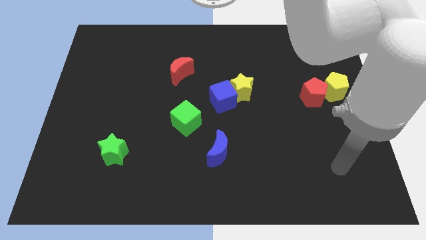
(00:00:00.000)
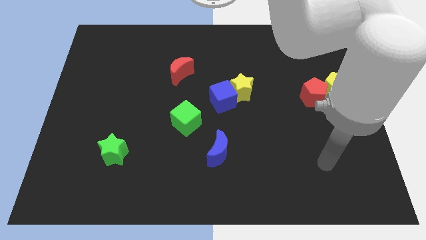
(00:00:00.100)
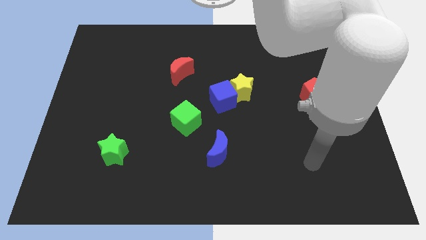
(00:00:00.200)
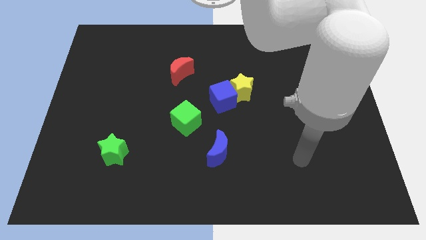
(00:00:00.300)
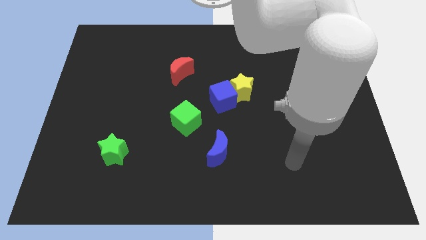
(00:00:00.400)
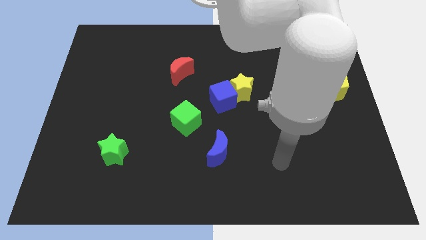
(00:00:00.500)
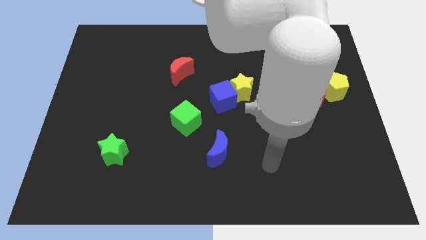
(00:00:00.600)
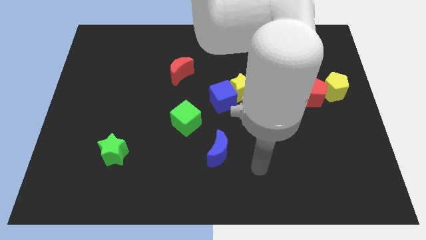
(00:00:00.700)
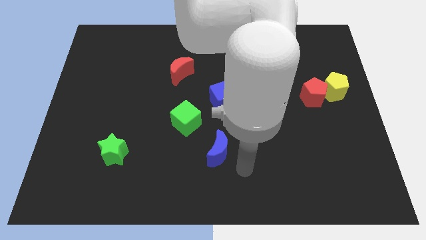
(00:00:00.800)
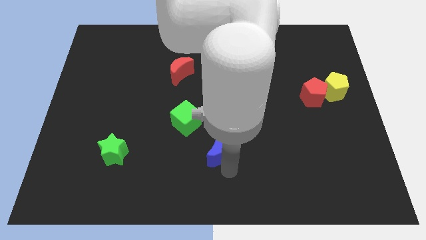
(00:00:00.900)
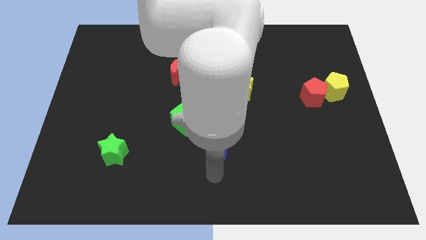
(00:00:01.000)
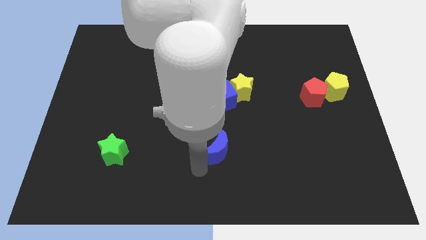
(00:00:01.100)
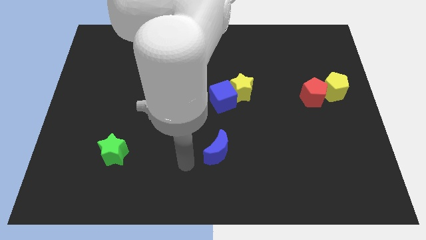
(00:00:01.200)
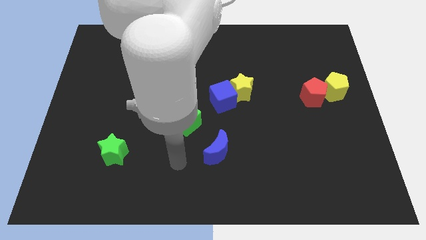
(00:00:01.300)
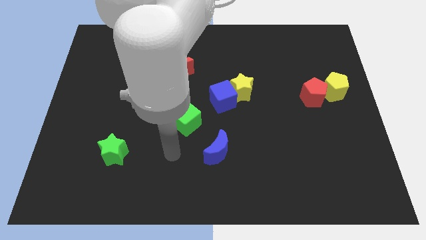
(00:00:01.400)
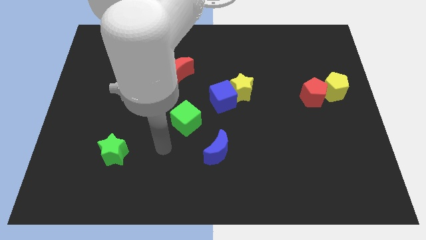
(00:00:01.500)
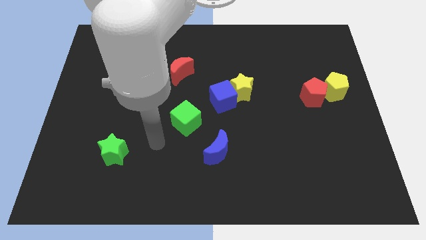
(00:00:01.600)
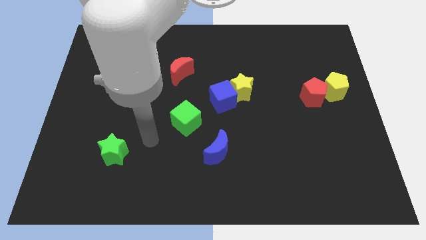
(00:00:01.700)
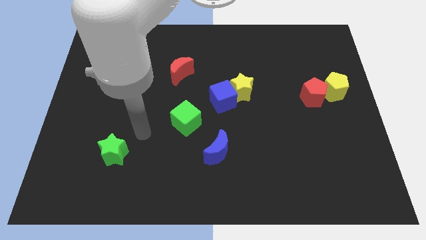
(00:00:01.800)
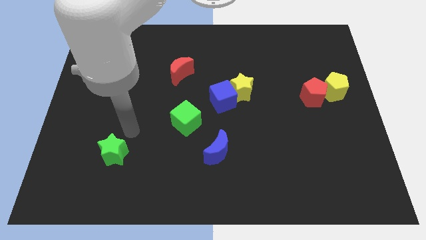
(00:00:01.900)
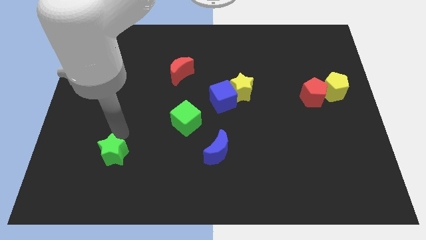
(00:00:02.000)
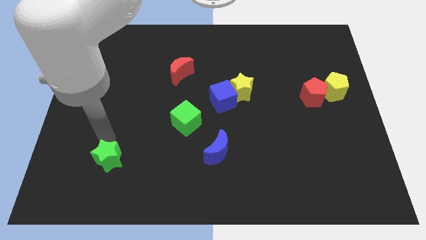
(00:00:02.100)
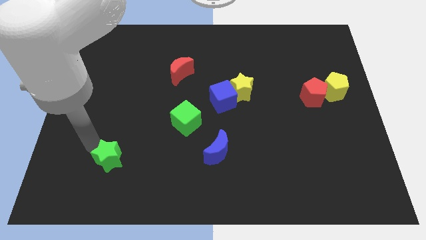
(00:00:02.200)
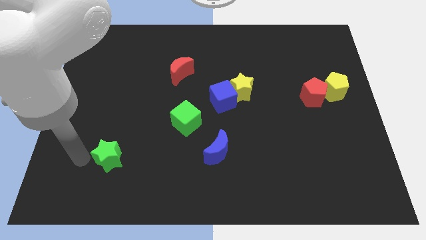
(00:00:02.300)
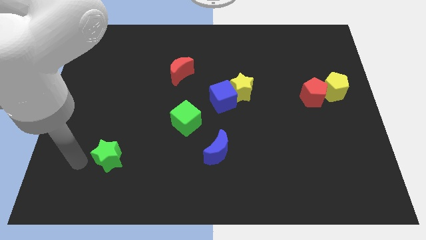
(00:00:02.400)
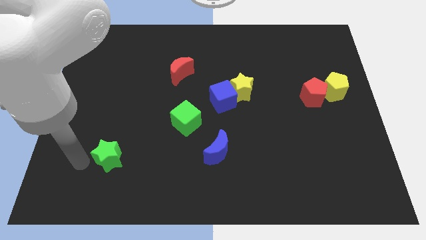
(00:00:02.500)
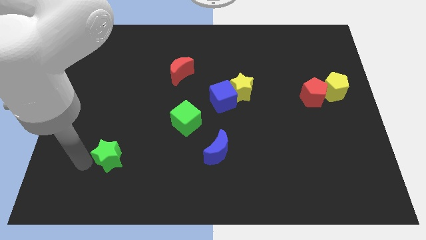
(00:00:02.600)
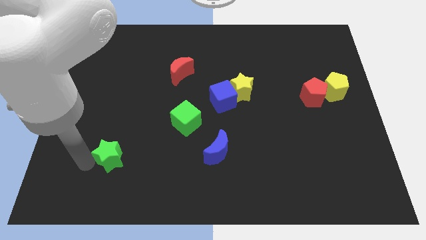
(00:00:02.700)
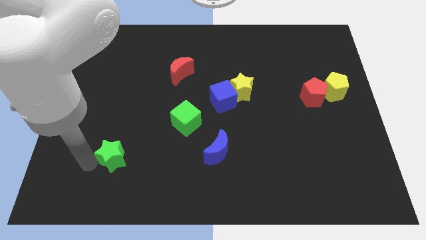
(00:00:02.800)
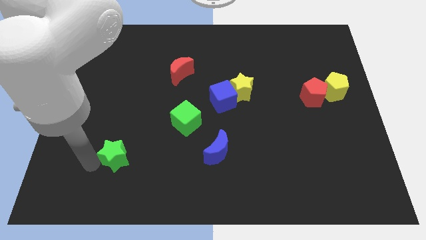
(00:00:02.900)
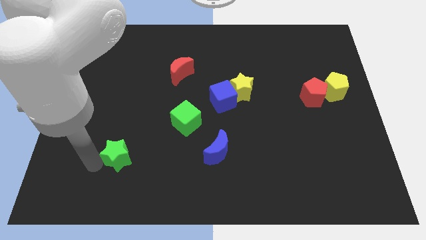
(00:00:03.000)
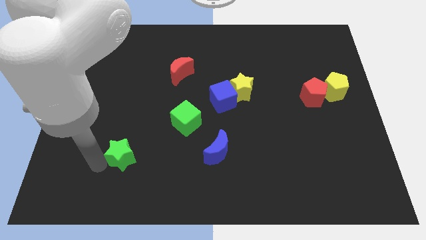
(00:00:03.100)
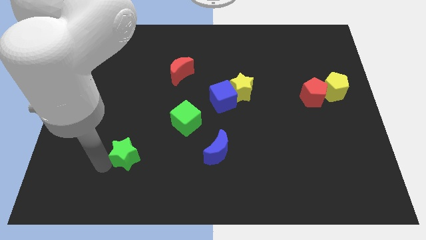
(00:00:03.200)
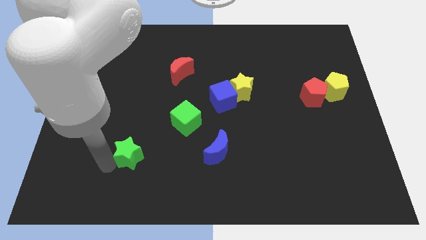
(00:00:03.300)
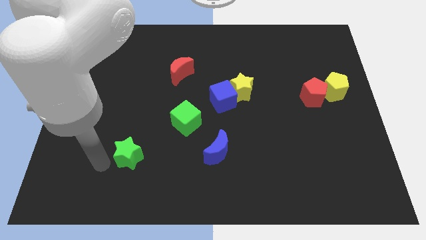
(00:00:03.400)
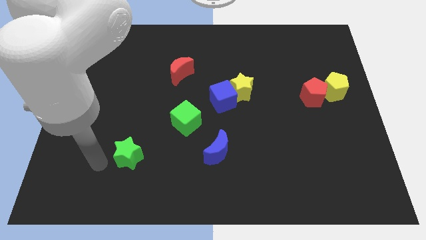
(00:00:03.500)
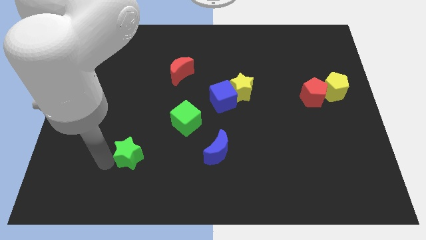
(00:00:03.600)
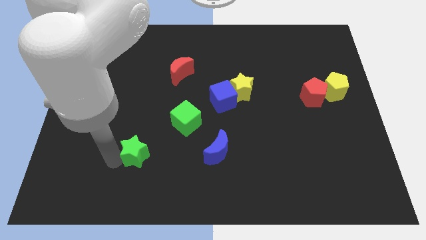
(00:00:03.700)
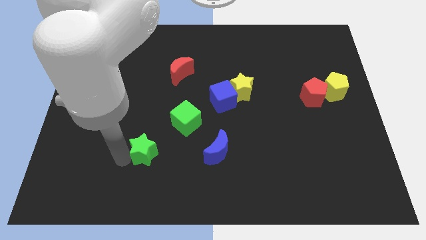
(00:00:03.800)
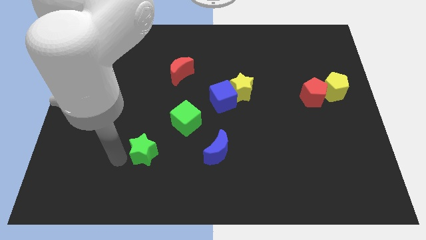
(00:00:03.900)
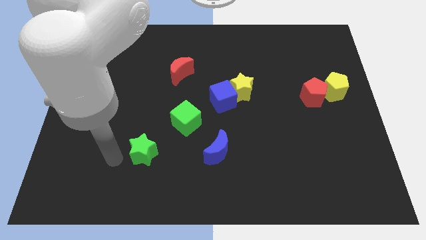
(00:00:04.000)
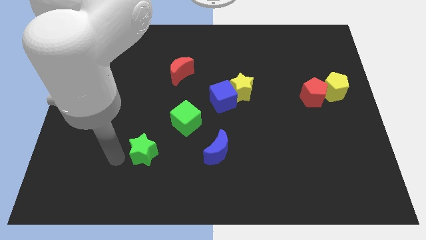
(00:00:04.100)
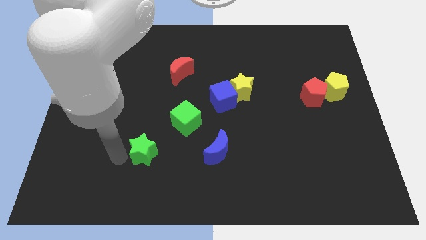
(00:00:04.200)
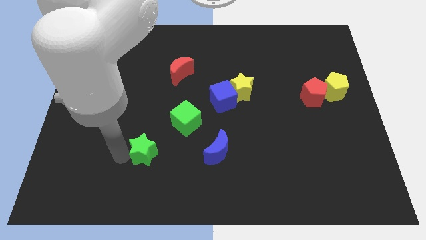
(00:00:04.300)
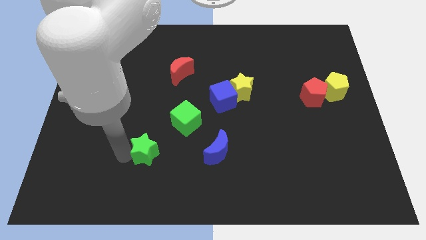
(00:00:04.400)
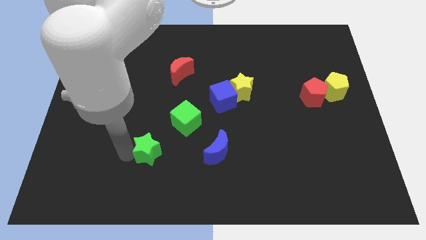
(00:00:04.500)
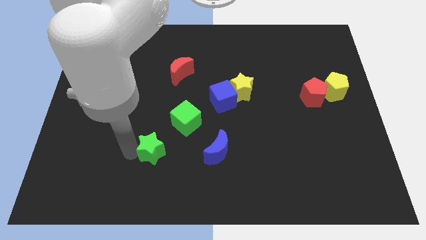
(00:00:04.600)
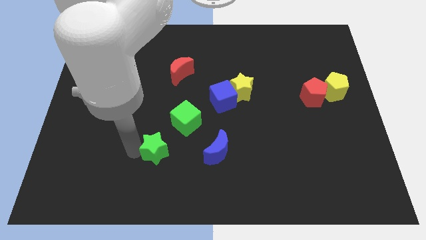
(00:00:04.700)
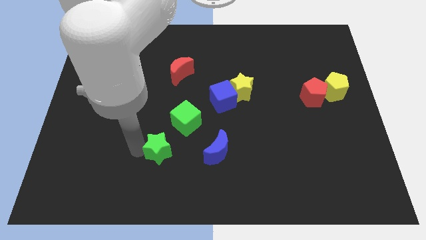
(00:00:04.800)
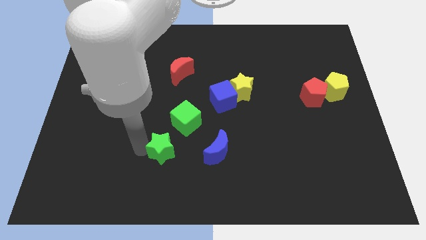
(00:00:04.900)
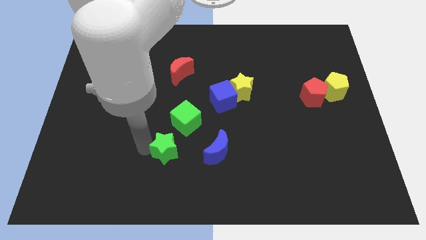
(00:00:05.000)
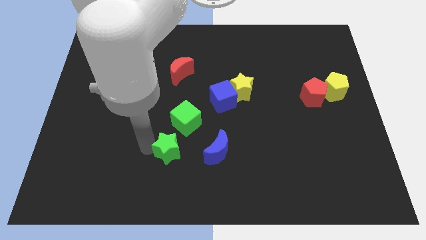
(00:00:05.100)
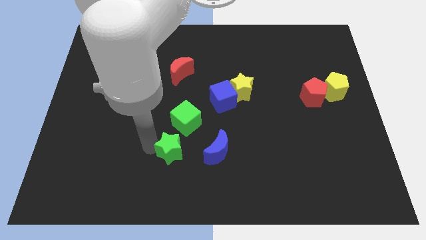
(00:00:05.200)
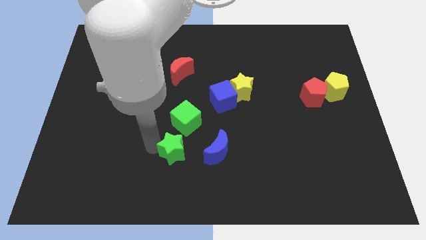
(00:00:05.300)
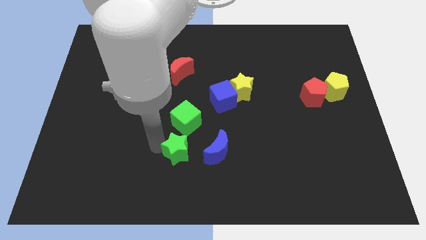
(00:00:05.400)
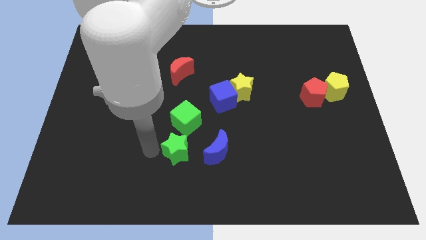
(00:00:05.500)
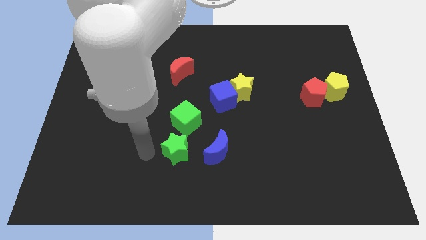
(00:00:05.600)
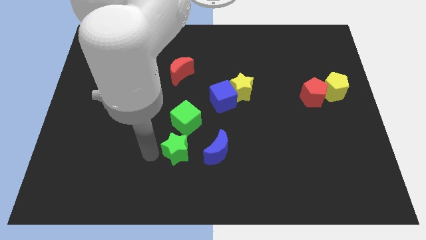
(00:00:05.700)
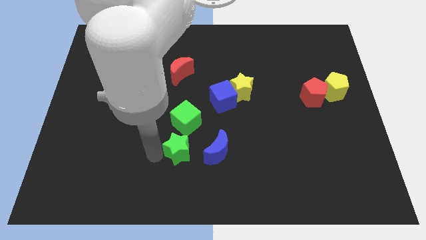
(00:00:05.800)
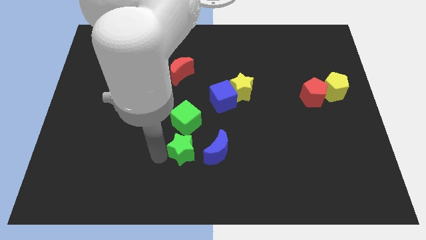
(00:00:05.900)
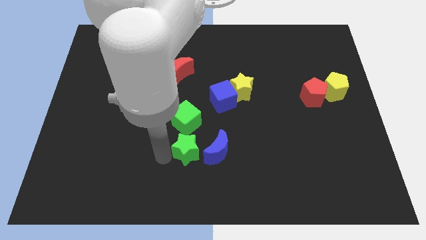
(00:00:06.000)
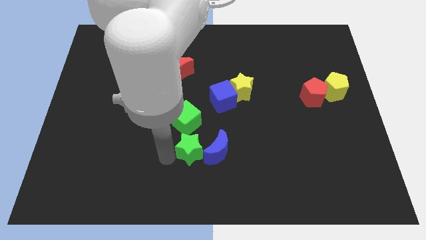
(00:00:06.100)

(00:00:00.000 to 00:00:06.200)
move the green star close to the blue moon

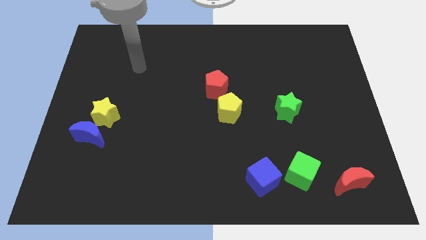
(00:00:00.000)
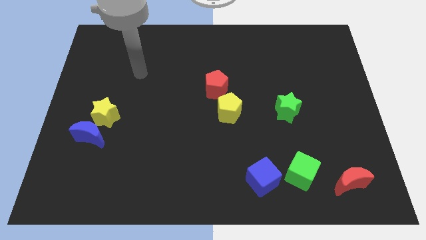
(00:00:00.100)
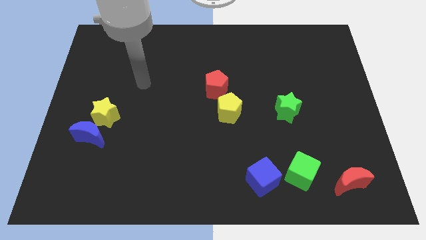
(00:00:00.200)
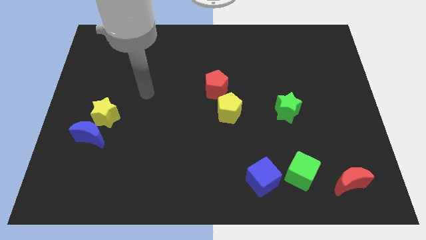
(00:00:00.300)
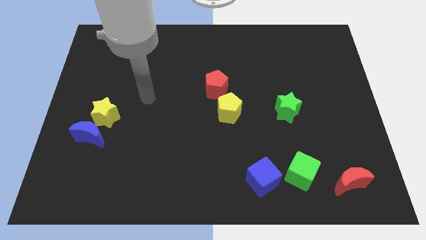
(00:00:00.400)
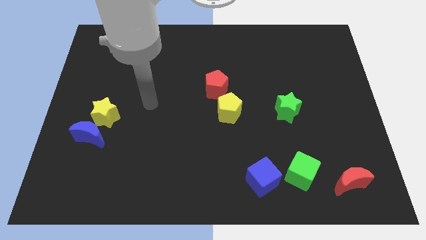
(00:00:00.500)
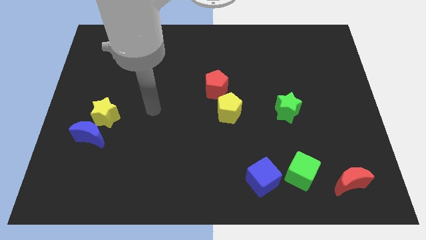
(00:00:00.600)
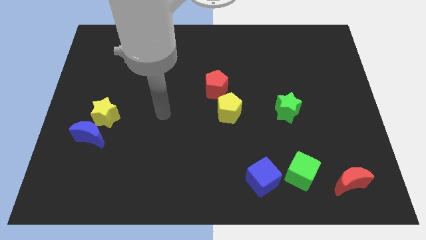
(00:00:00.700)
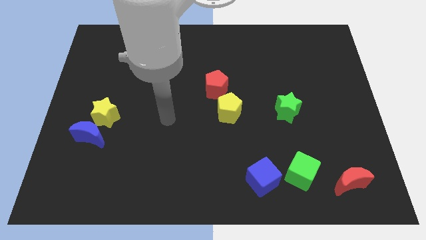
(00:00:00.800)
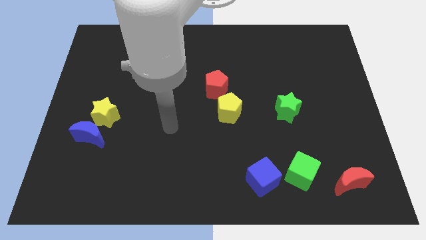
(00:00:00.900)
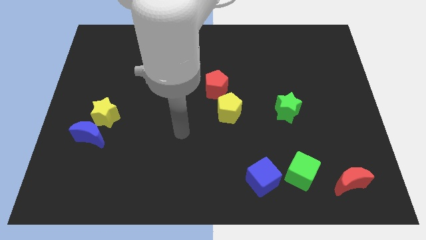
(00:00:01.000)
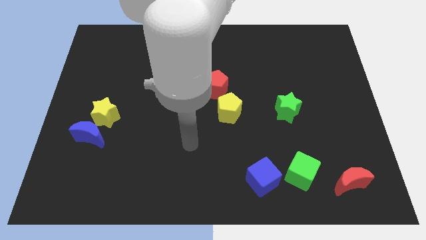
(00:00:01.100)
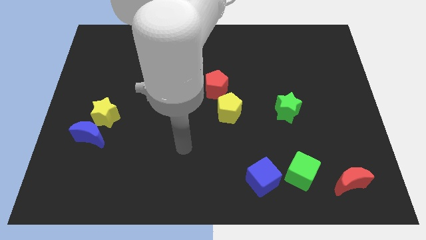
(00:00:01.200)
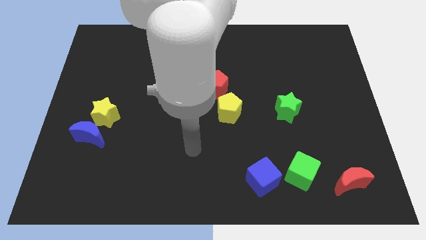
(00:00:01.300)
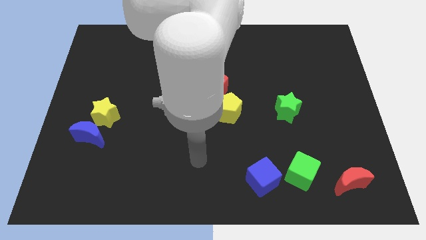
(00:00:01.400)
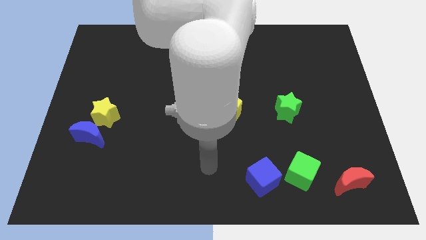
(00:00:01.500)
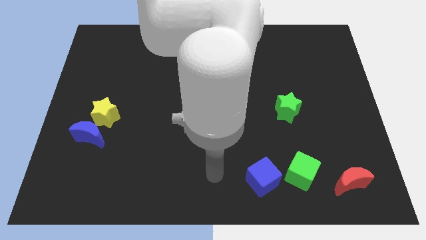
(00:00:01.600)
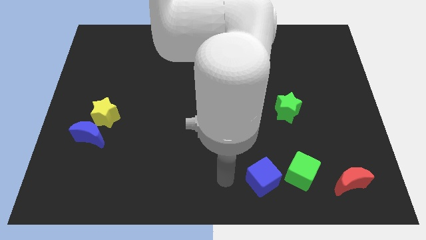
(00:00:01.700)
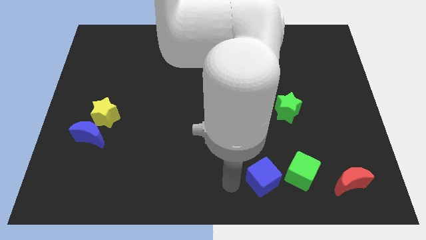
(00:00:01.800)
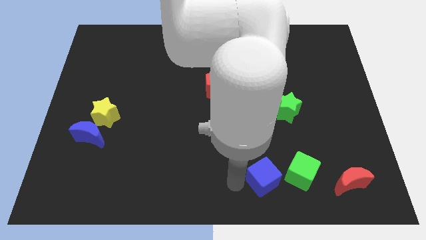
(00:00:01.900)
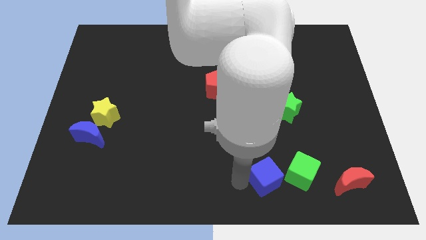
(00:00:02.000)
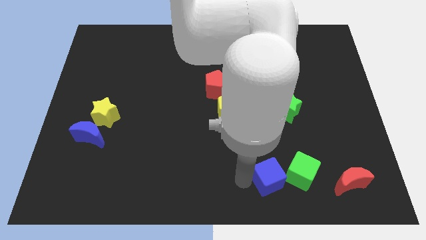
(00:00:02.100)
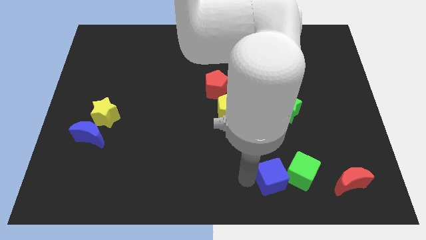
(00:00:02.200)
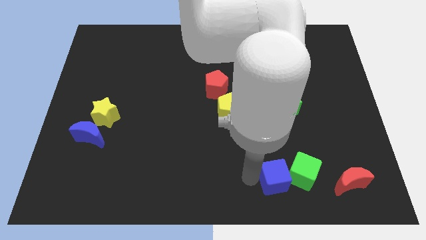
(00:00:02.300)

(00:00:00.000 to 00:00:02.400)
slide the blue cube next to the green cube
